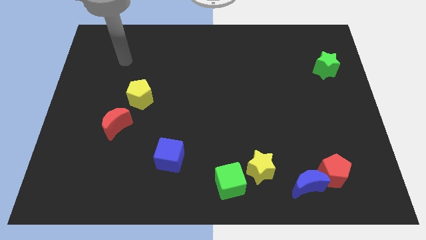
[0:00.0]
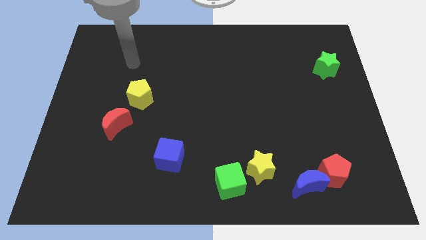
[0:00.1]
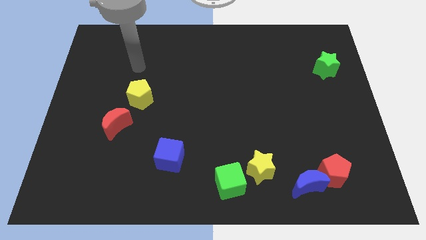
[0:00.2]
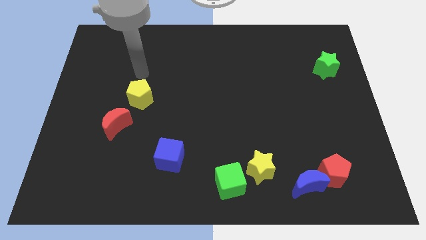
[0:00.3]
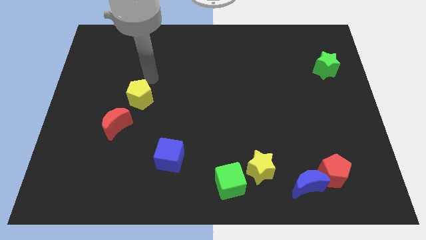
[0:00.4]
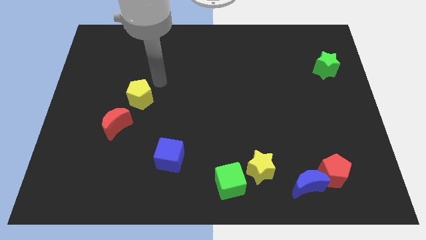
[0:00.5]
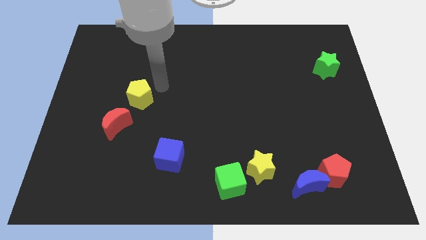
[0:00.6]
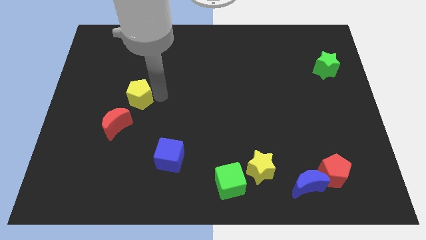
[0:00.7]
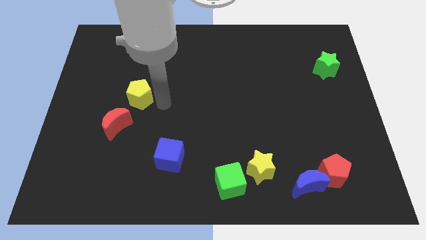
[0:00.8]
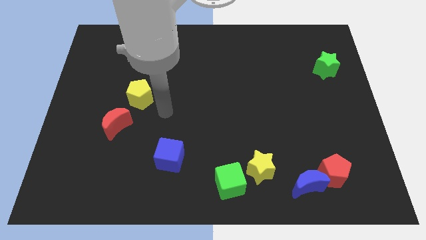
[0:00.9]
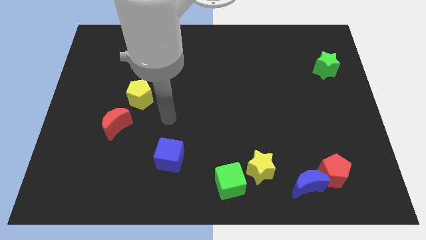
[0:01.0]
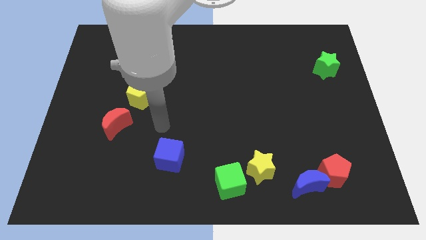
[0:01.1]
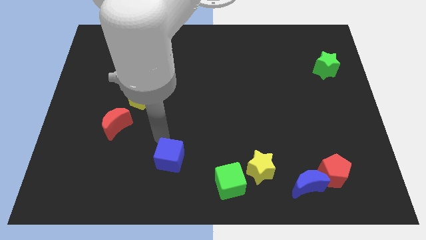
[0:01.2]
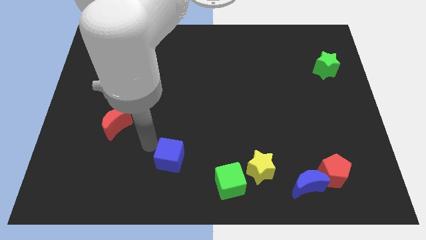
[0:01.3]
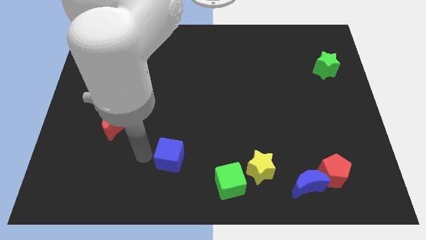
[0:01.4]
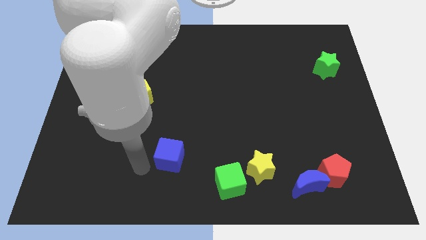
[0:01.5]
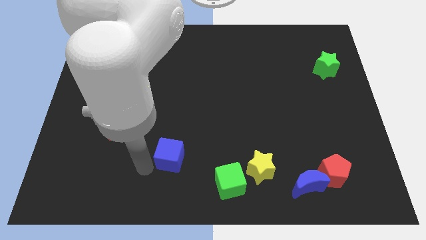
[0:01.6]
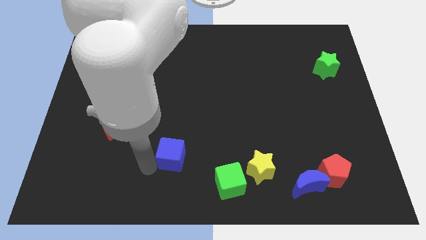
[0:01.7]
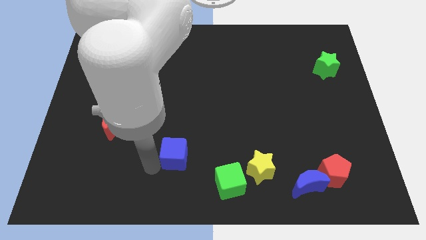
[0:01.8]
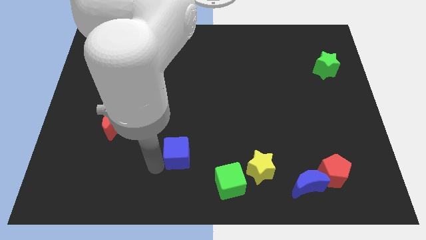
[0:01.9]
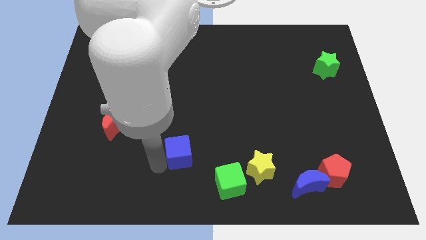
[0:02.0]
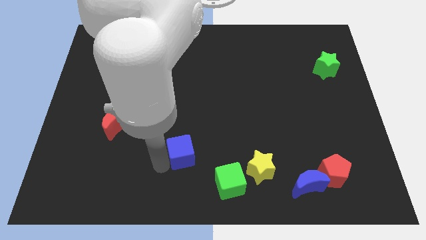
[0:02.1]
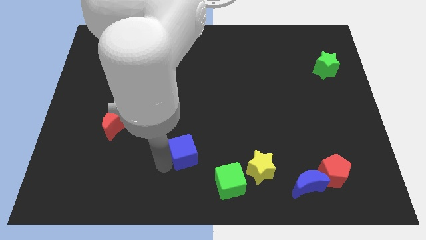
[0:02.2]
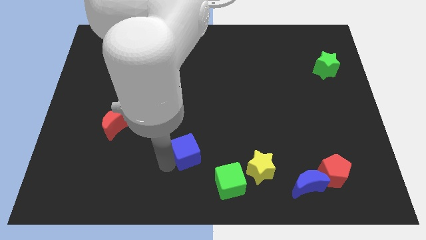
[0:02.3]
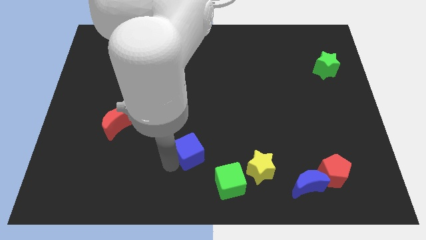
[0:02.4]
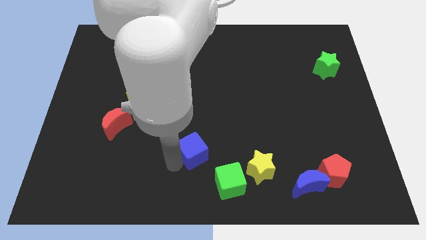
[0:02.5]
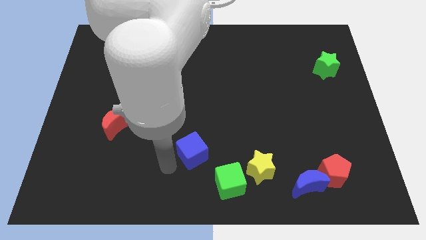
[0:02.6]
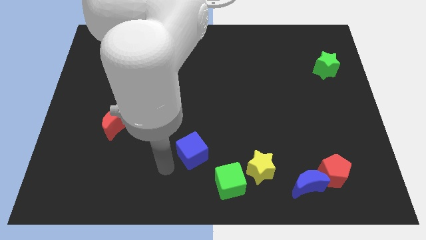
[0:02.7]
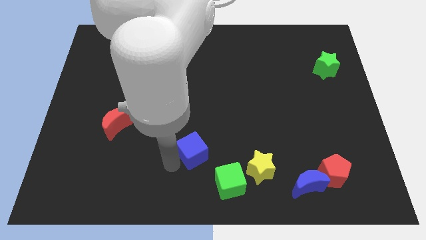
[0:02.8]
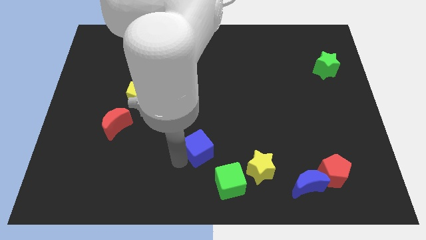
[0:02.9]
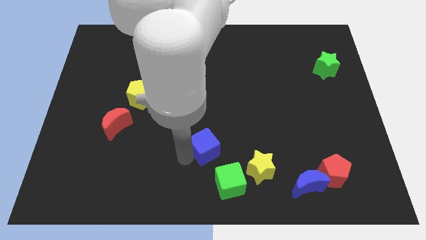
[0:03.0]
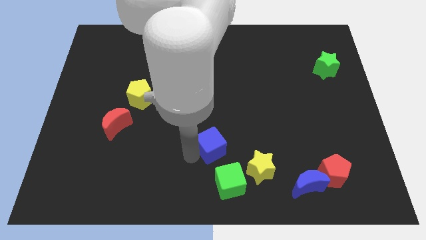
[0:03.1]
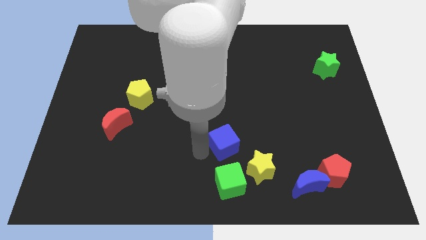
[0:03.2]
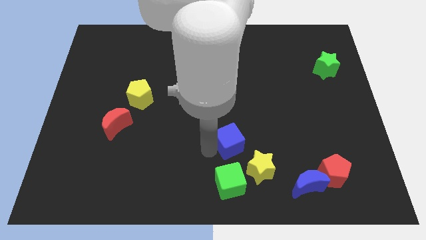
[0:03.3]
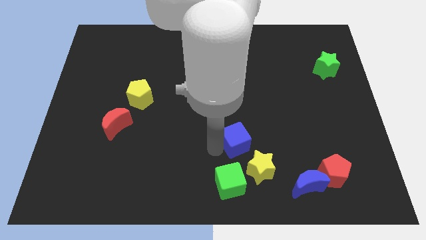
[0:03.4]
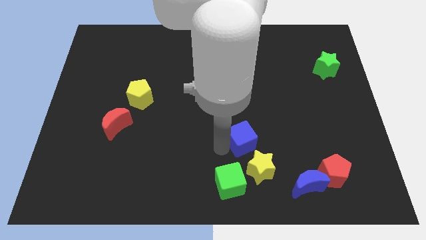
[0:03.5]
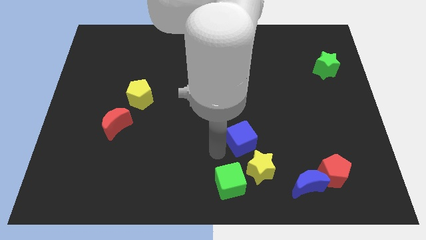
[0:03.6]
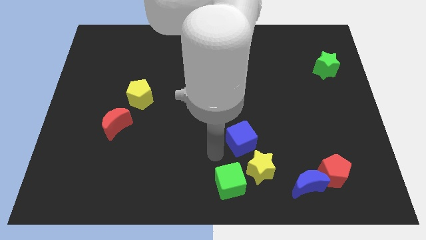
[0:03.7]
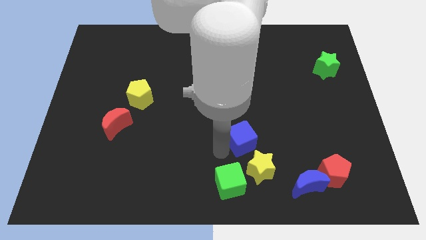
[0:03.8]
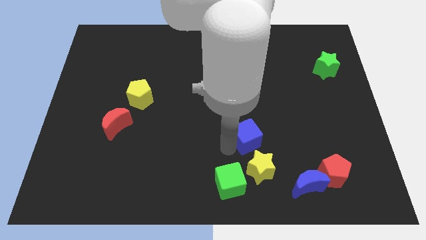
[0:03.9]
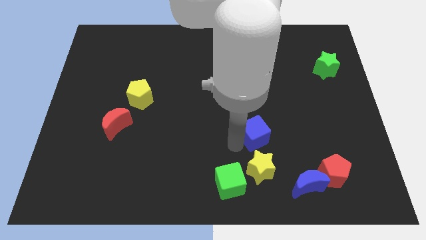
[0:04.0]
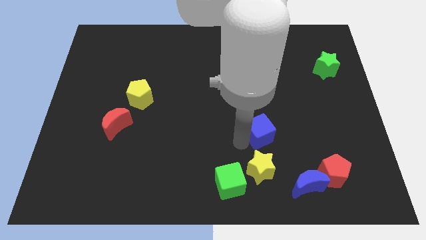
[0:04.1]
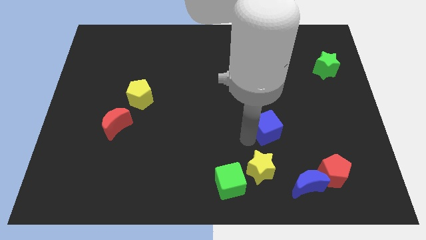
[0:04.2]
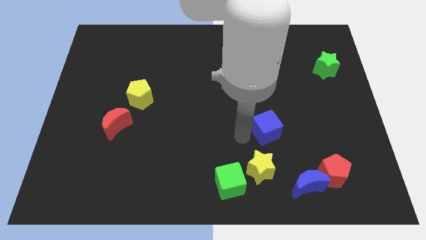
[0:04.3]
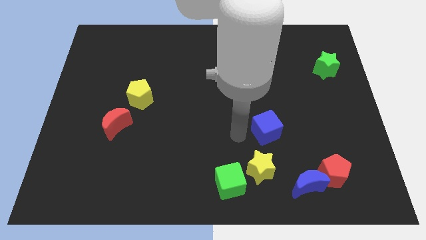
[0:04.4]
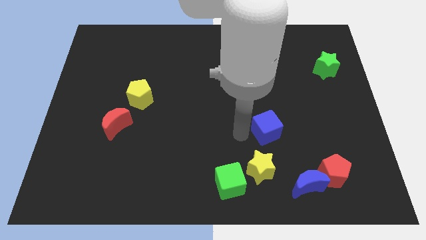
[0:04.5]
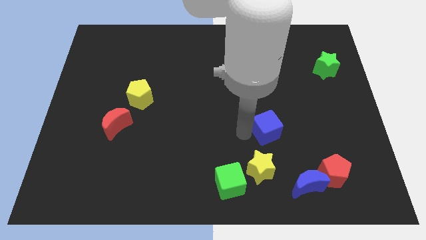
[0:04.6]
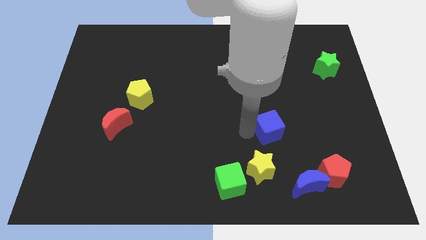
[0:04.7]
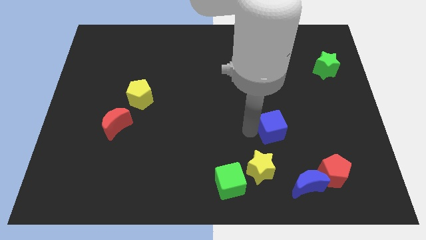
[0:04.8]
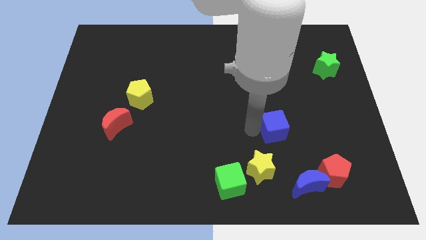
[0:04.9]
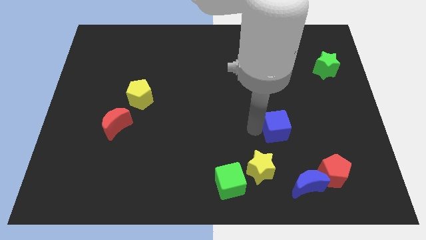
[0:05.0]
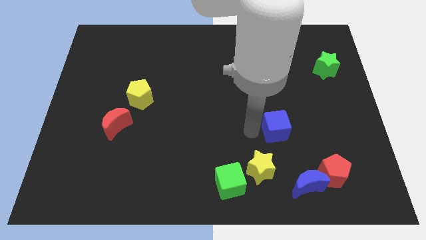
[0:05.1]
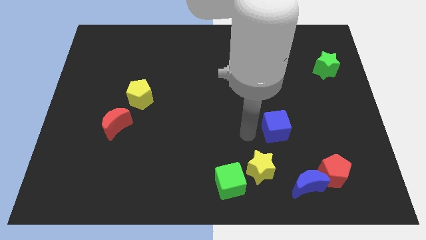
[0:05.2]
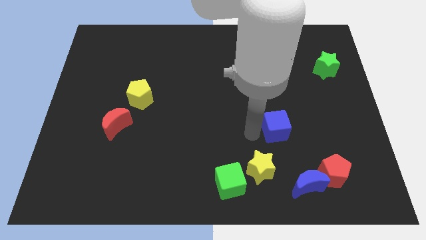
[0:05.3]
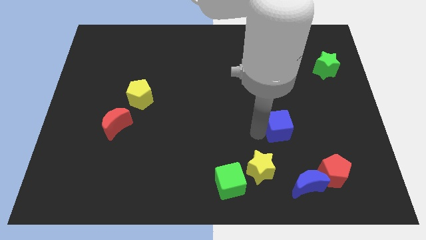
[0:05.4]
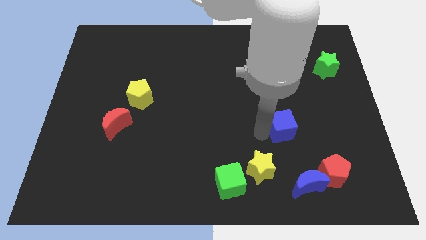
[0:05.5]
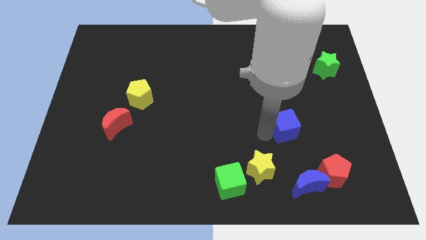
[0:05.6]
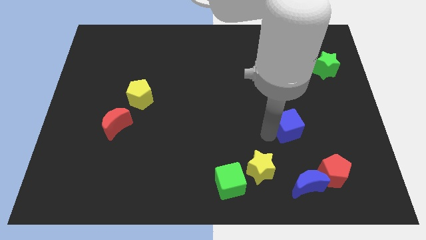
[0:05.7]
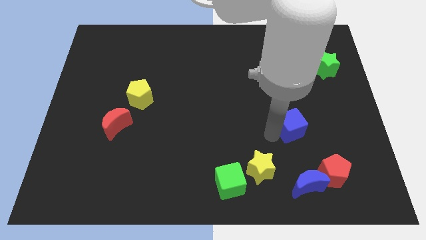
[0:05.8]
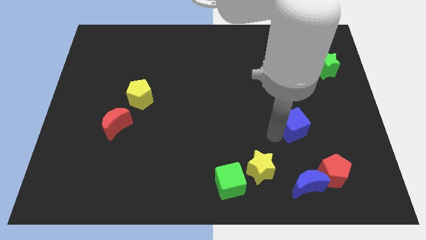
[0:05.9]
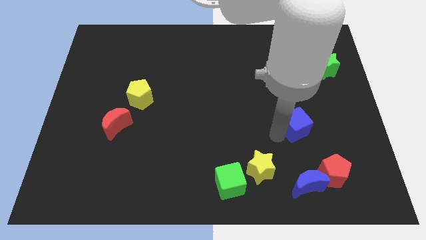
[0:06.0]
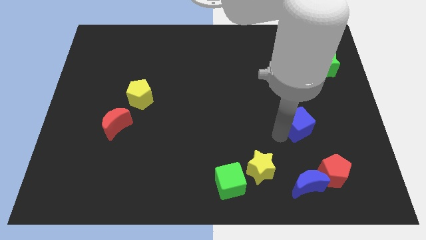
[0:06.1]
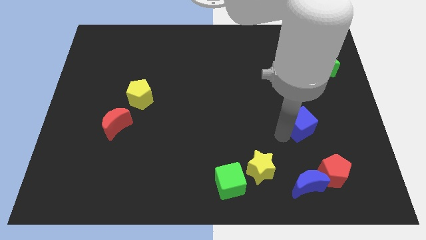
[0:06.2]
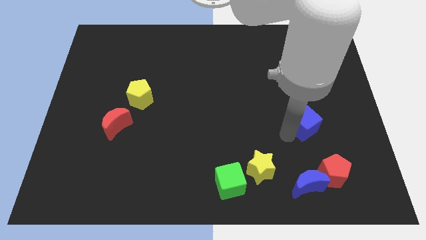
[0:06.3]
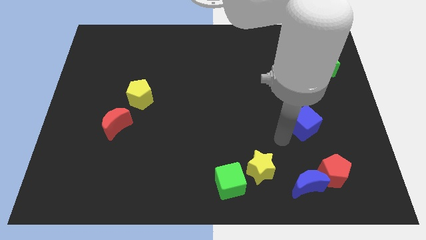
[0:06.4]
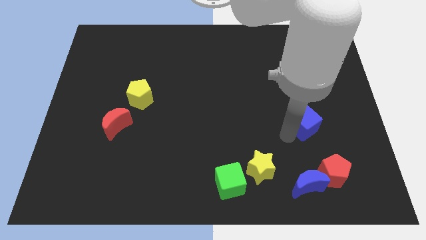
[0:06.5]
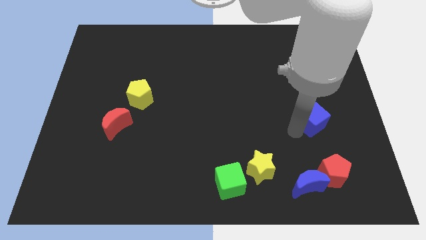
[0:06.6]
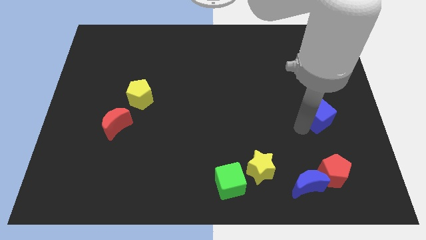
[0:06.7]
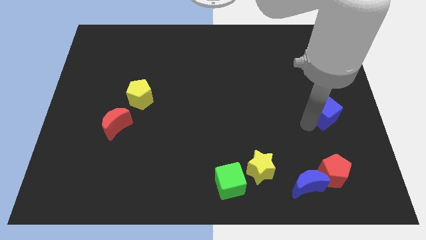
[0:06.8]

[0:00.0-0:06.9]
push the blue cube to the right side of the board
